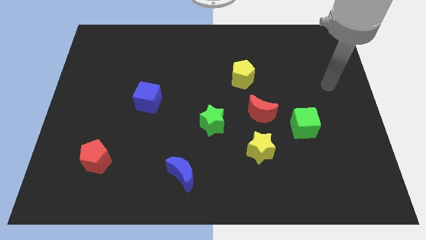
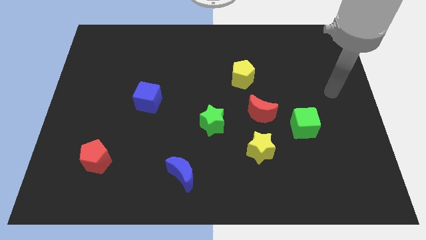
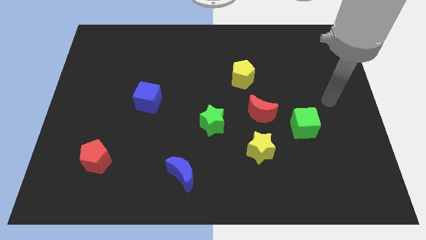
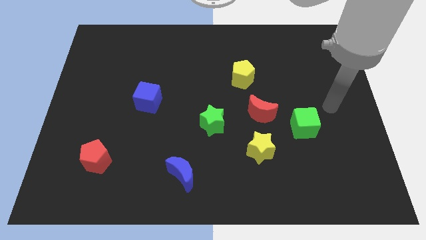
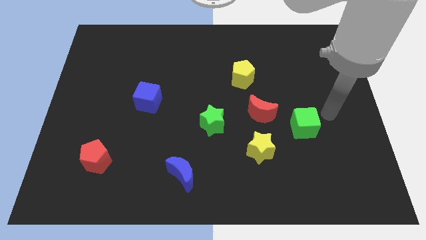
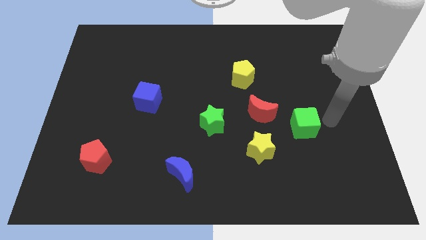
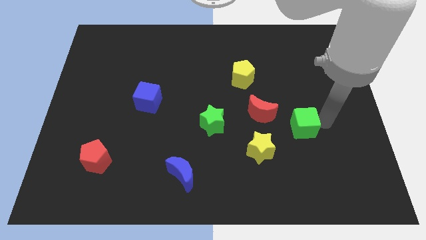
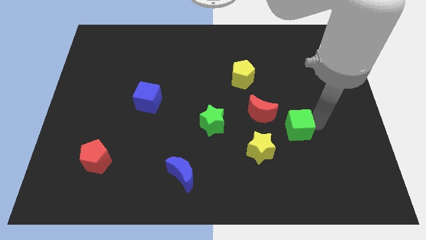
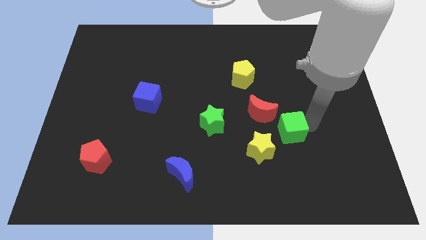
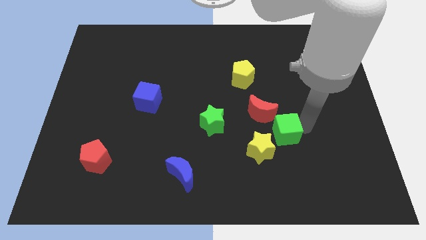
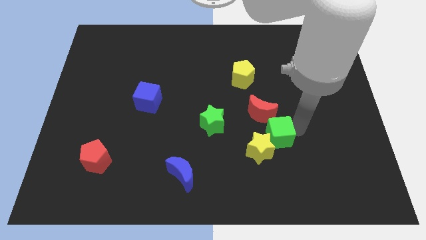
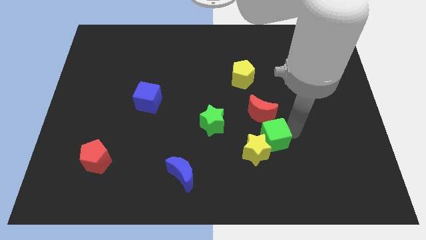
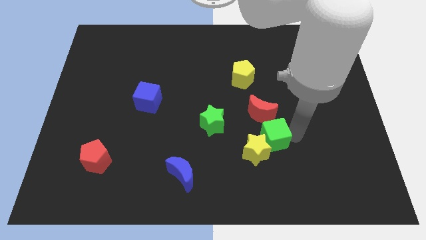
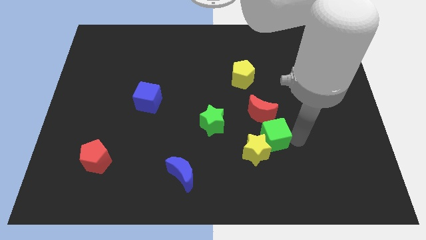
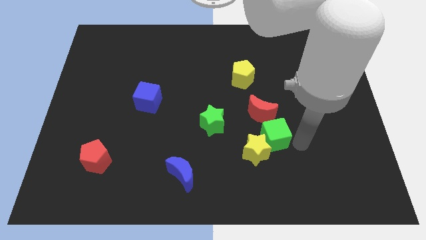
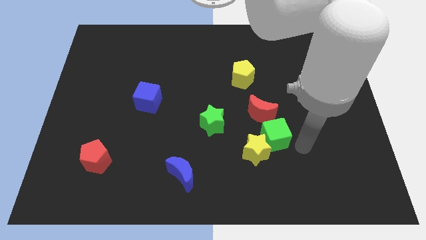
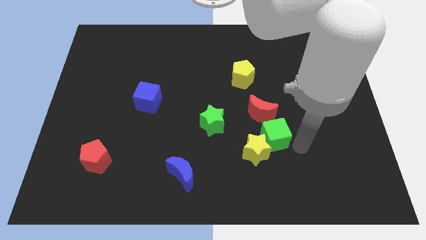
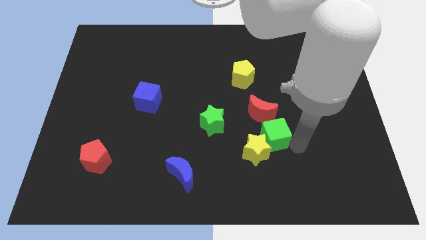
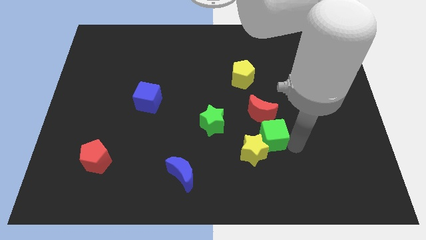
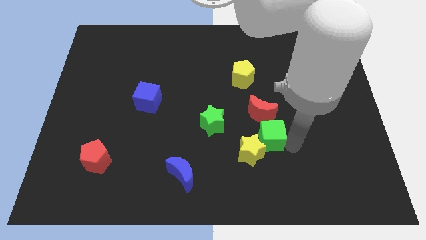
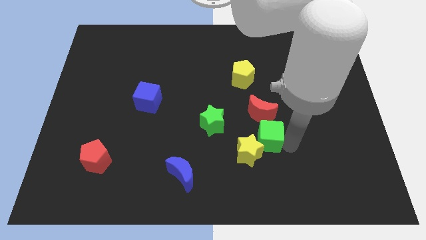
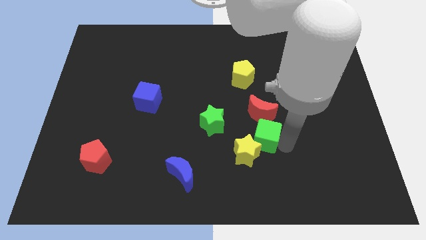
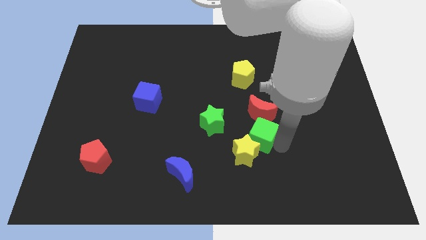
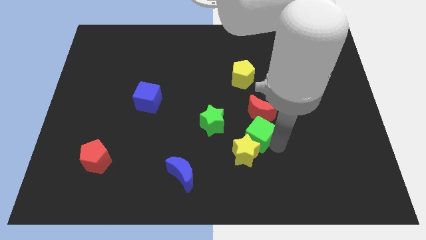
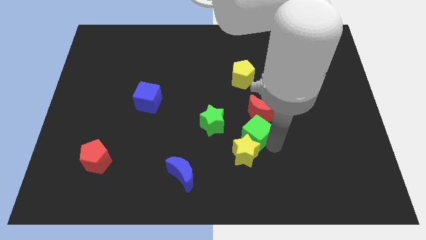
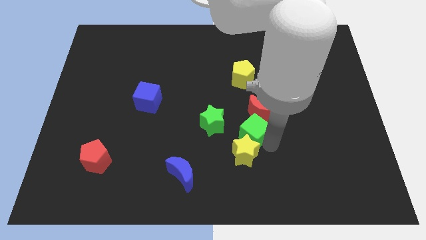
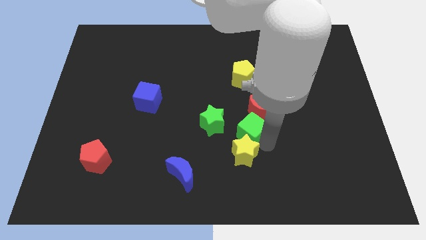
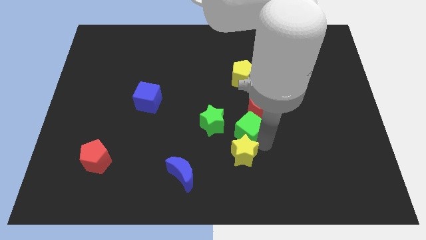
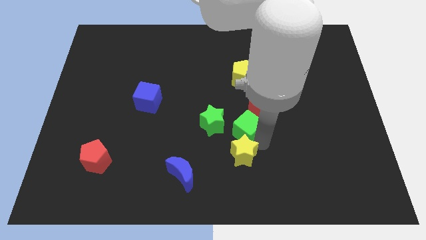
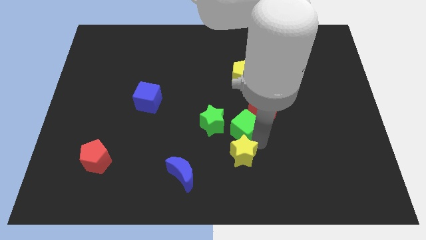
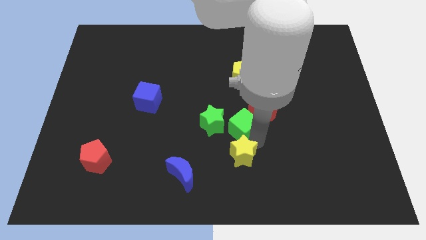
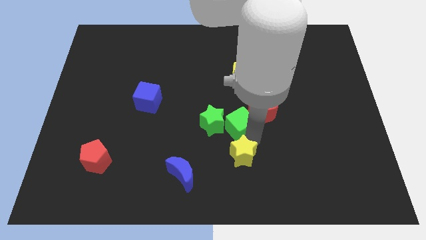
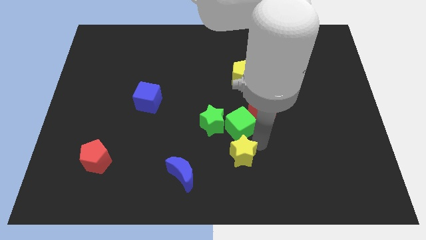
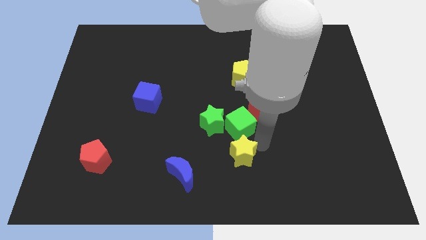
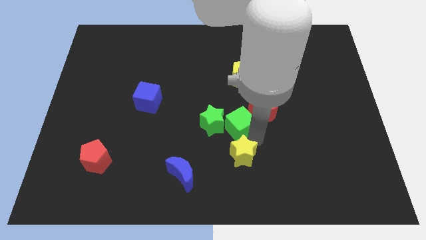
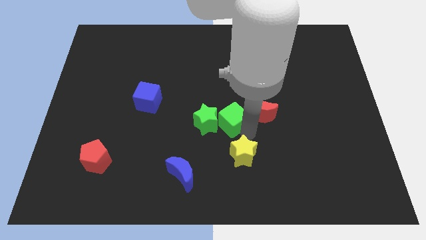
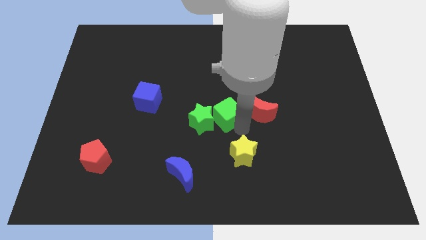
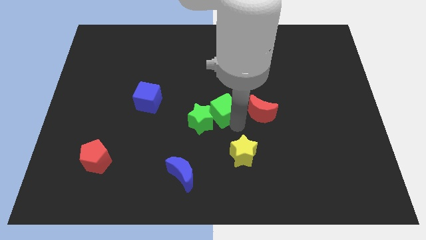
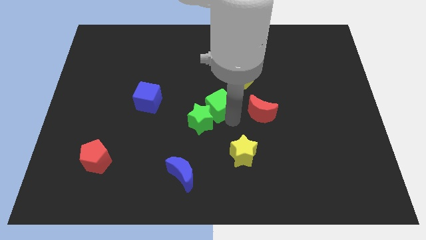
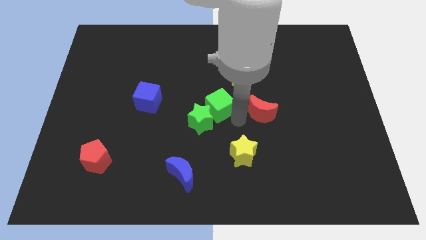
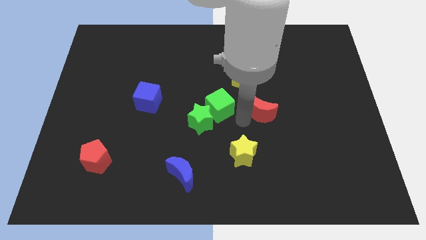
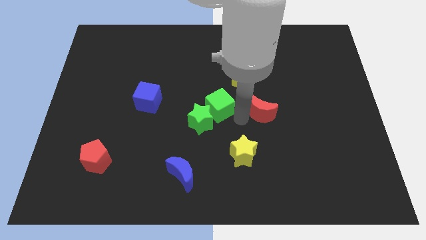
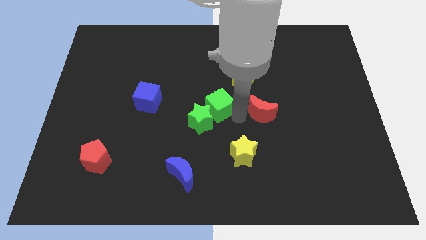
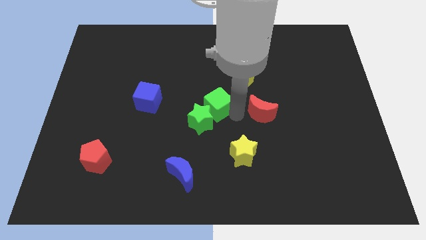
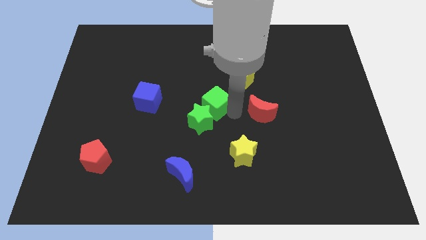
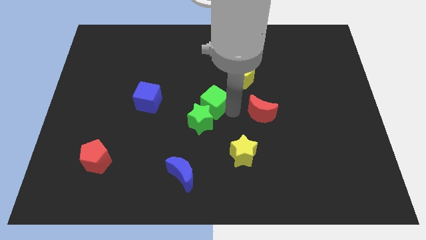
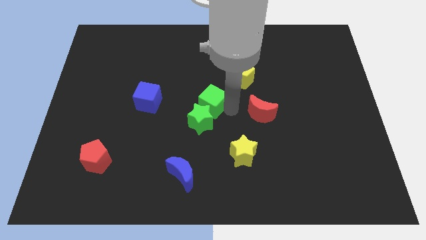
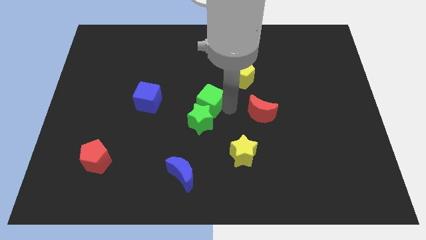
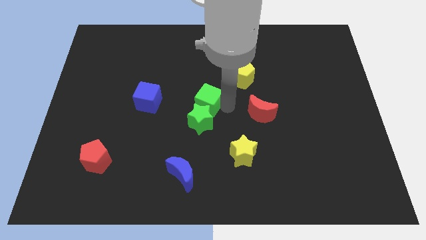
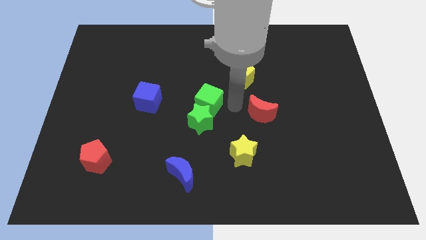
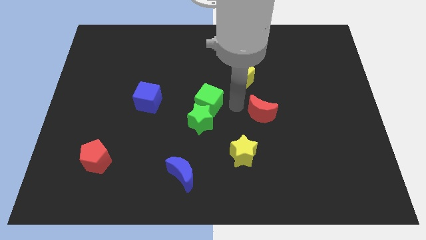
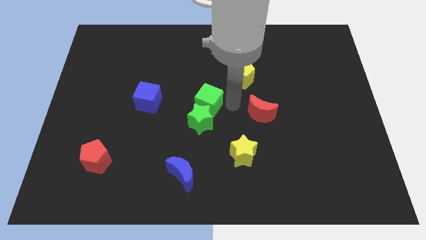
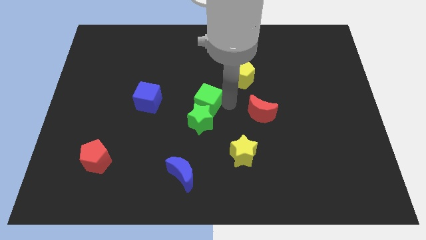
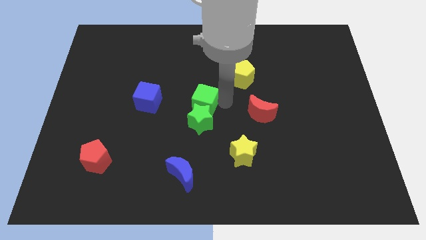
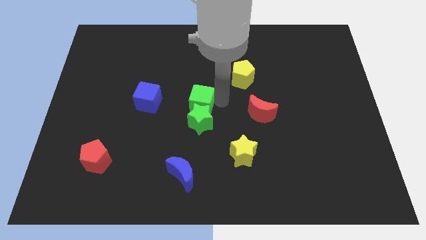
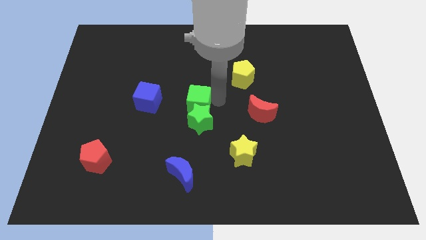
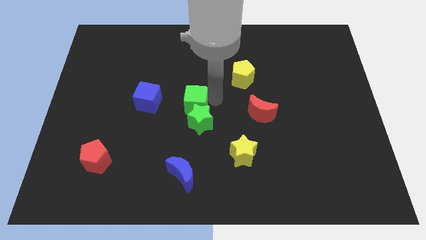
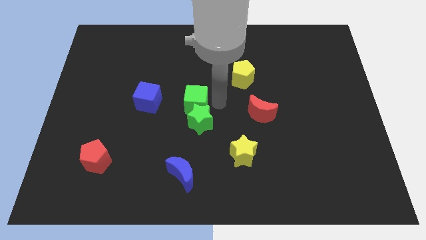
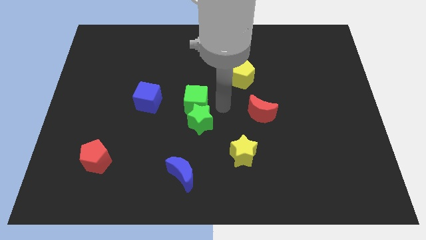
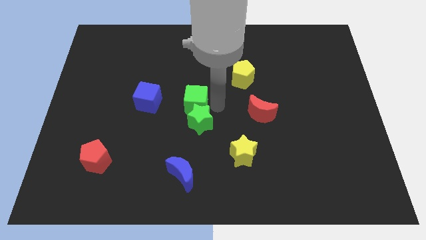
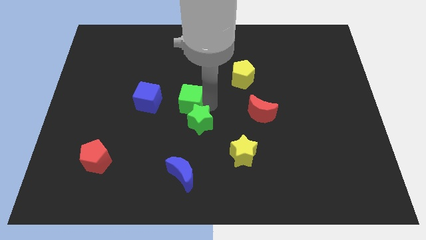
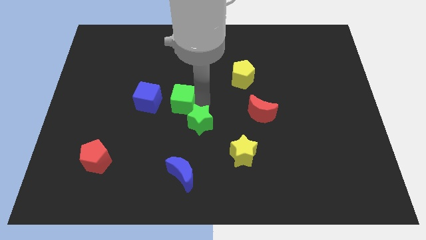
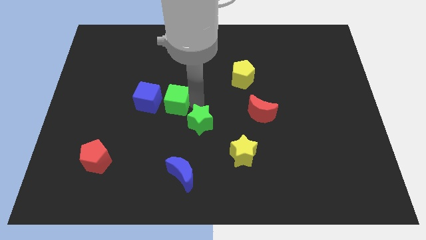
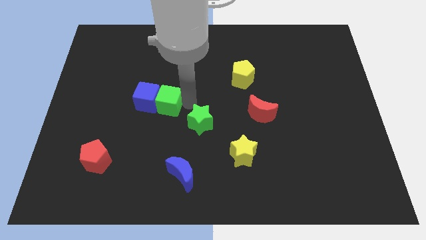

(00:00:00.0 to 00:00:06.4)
move the green cube next to the blue cube

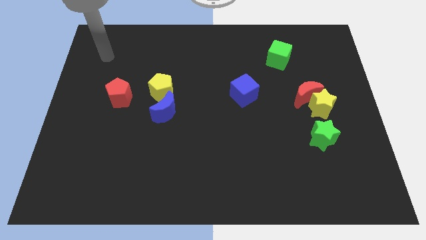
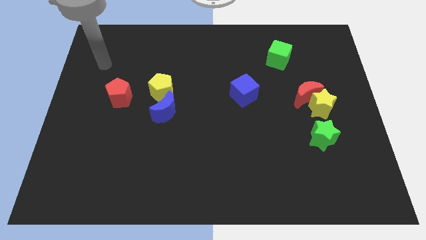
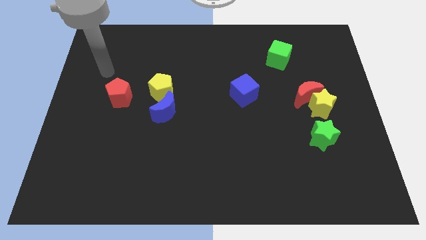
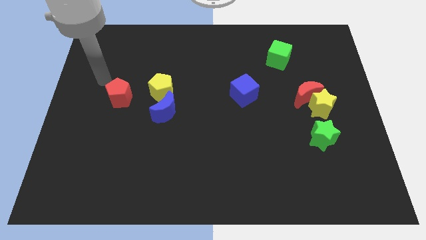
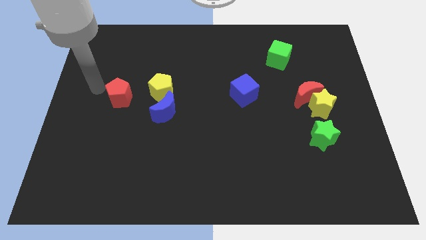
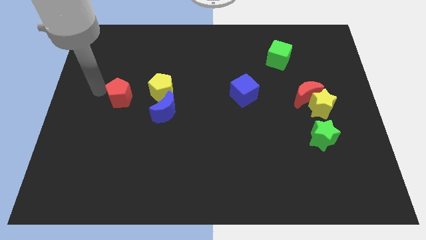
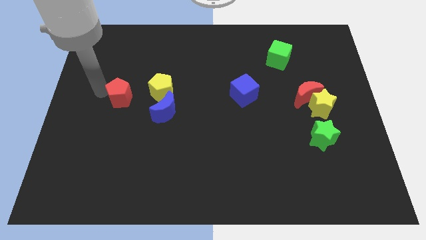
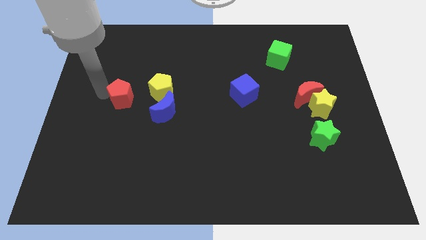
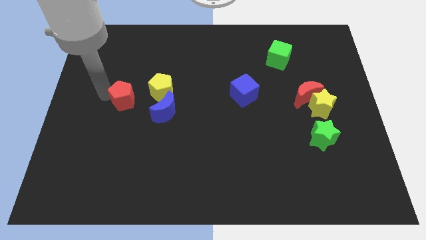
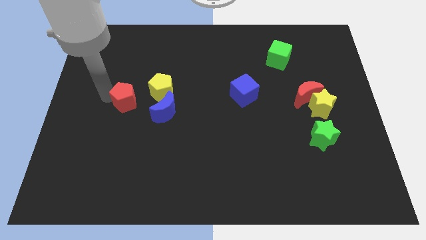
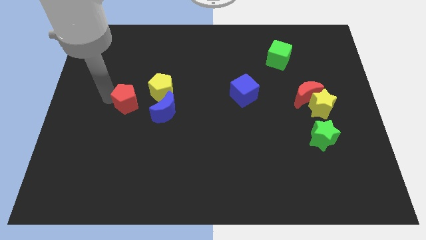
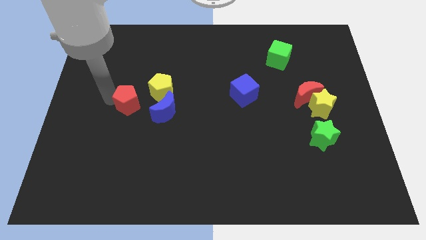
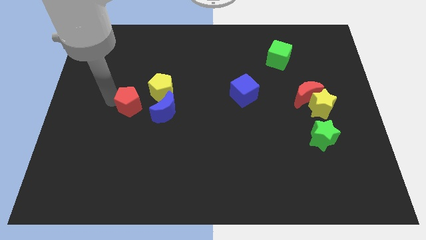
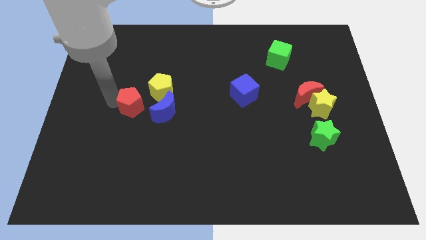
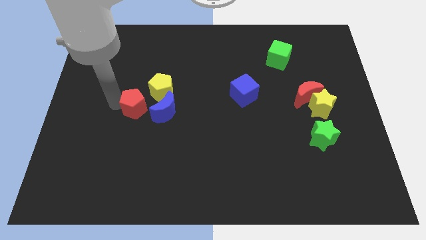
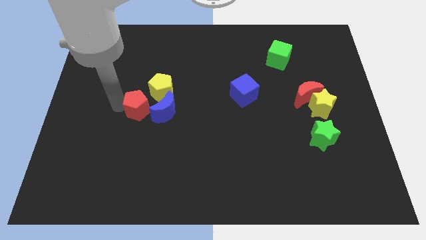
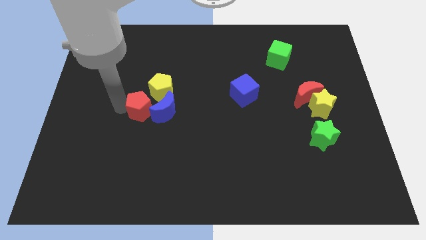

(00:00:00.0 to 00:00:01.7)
move the red pentagon to the blue moon
